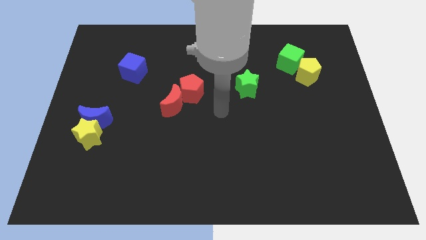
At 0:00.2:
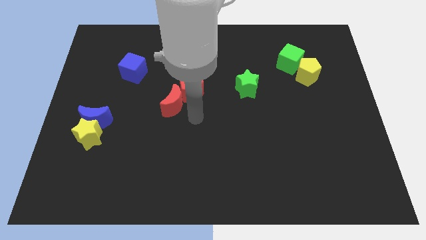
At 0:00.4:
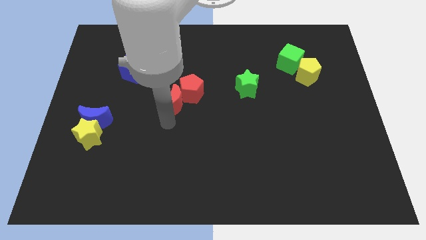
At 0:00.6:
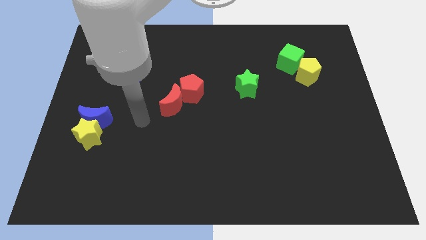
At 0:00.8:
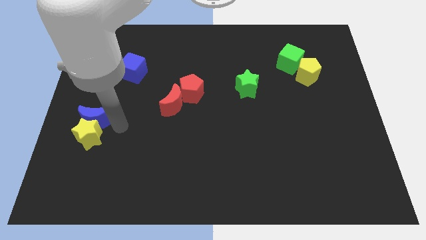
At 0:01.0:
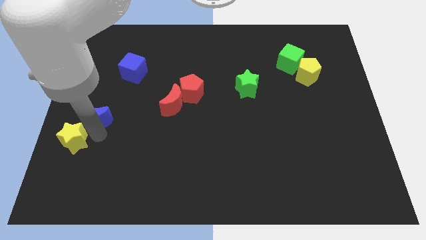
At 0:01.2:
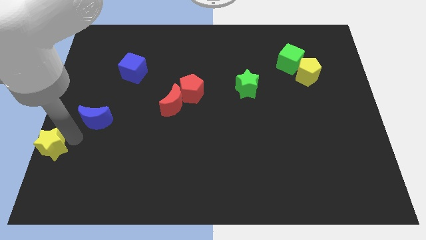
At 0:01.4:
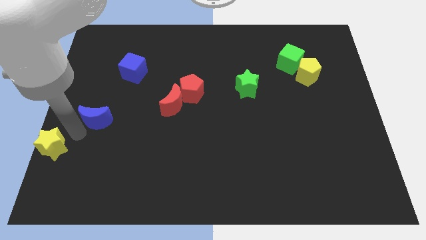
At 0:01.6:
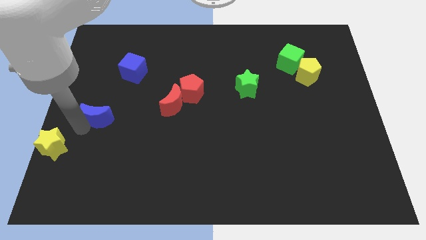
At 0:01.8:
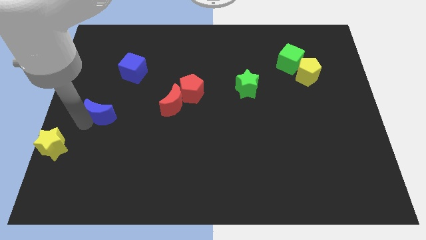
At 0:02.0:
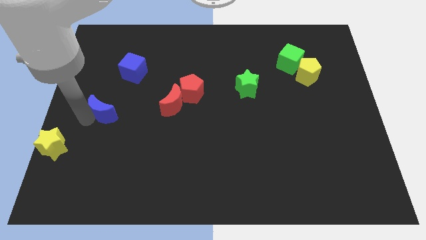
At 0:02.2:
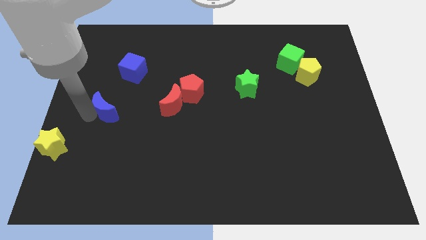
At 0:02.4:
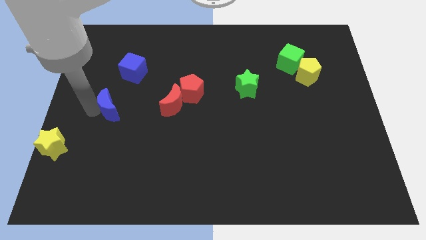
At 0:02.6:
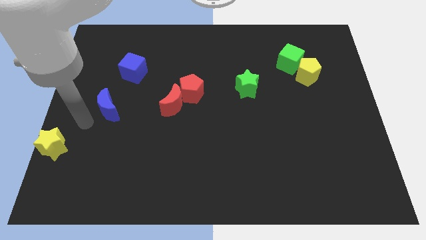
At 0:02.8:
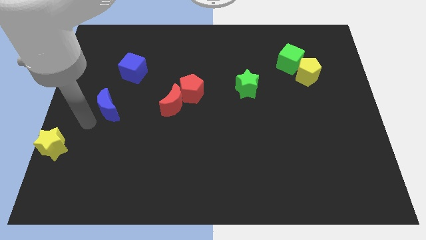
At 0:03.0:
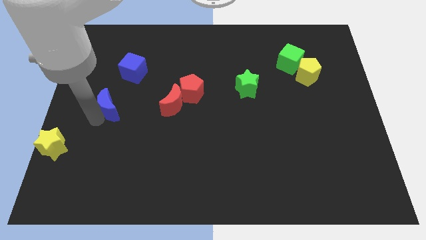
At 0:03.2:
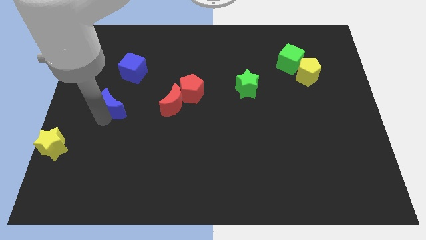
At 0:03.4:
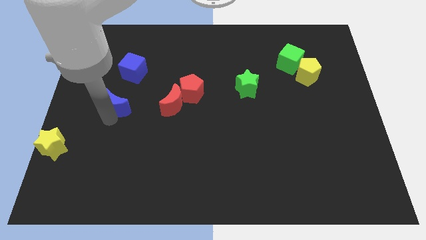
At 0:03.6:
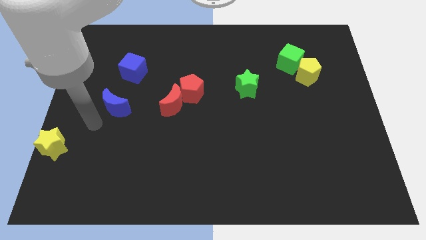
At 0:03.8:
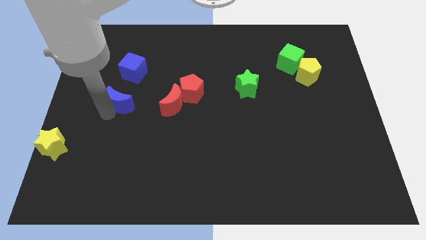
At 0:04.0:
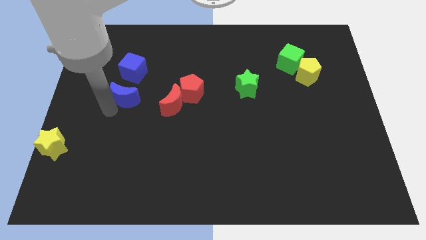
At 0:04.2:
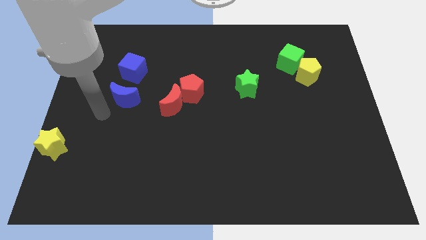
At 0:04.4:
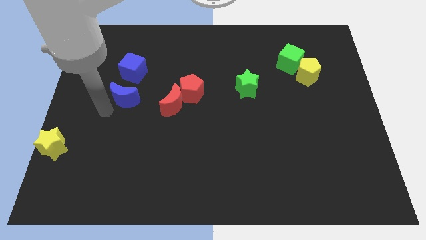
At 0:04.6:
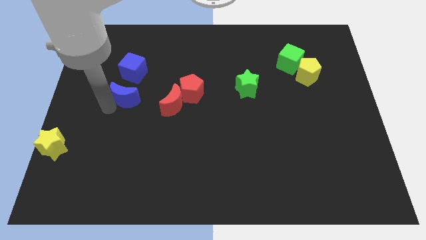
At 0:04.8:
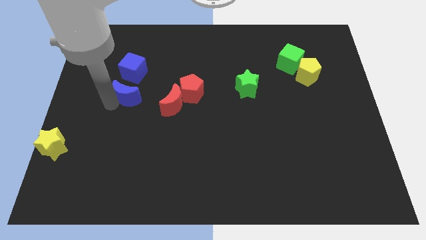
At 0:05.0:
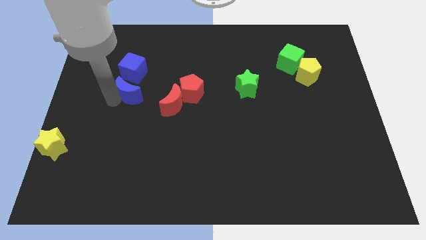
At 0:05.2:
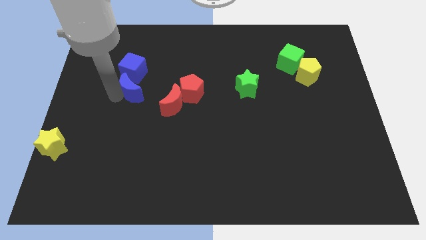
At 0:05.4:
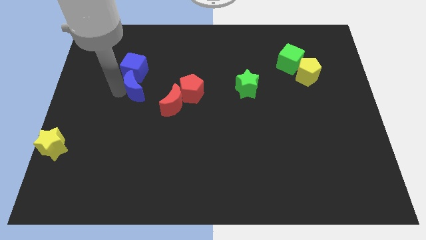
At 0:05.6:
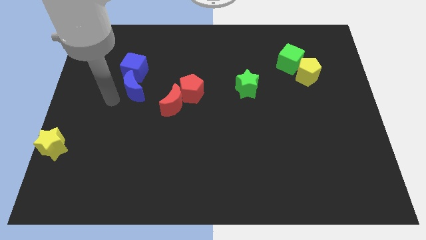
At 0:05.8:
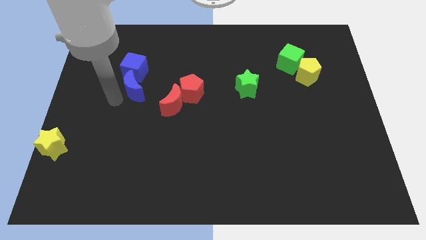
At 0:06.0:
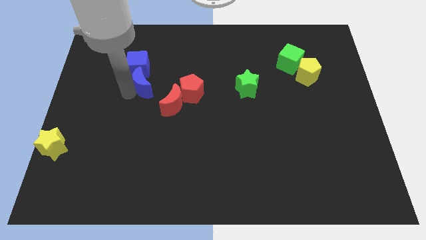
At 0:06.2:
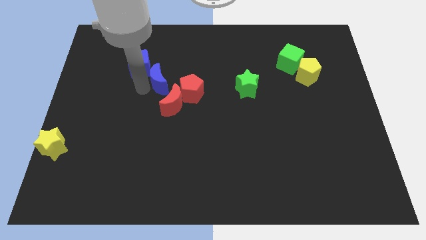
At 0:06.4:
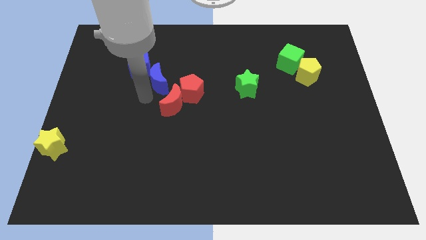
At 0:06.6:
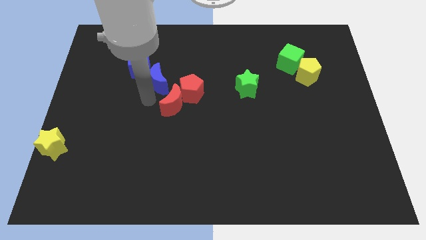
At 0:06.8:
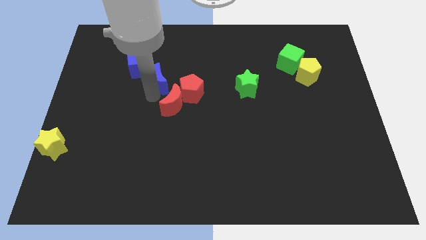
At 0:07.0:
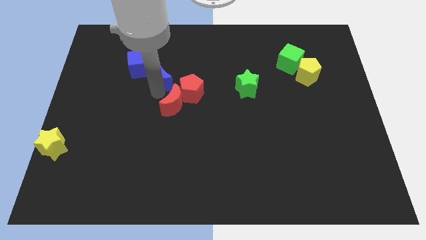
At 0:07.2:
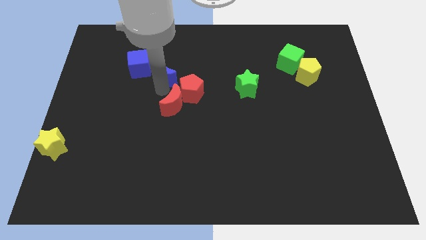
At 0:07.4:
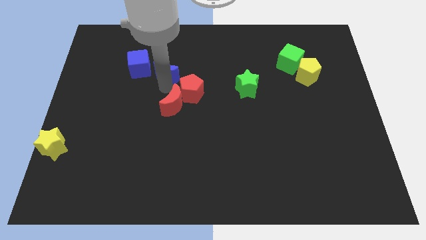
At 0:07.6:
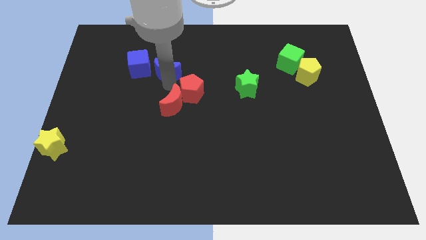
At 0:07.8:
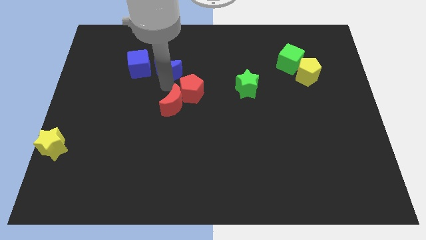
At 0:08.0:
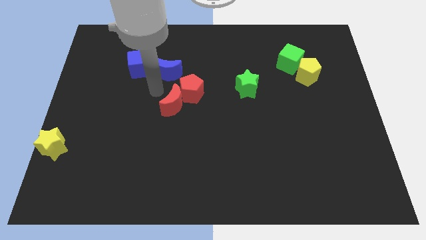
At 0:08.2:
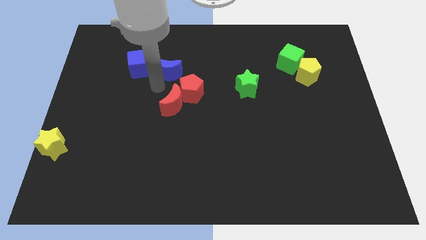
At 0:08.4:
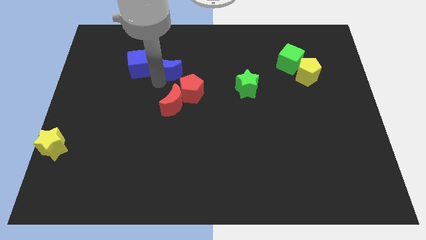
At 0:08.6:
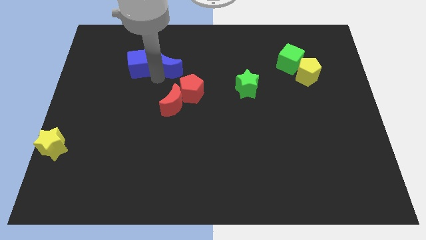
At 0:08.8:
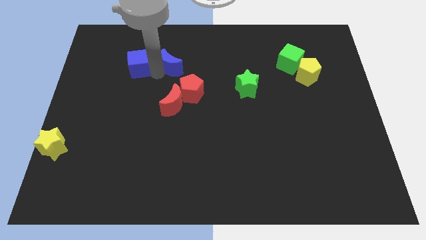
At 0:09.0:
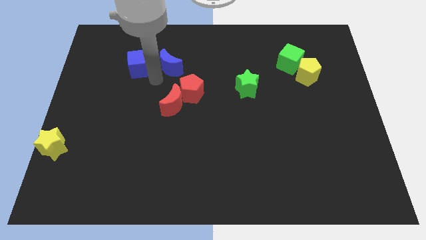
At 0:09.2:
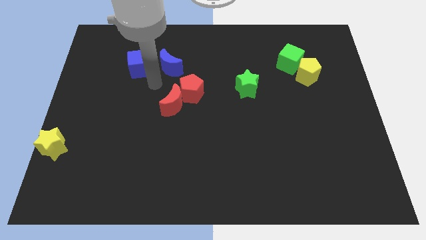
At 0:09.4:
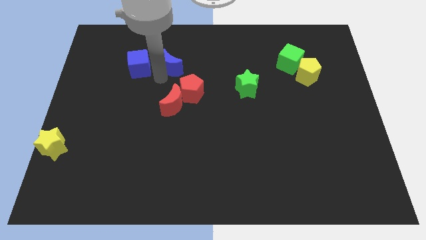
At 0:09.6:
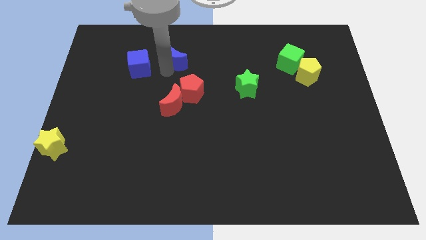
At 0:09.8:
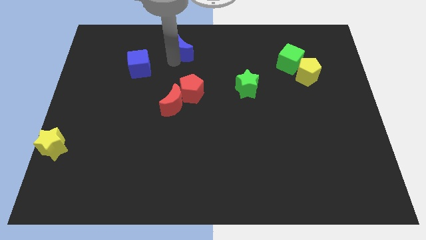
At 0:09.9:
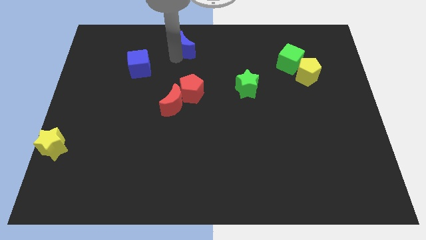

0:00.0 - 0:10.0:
put the blue moon to the towards your base

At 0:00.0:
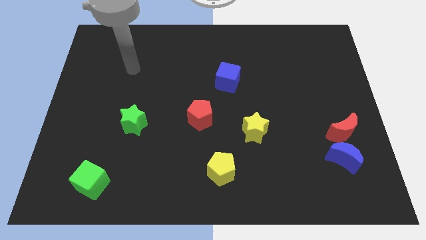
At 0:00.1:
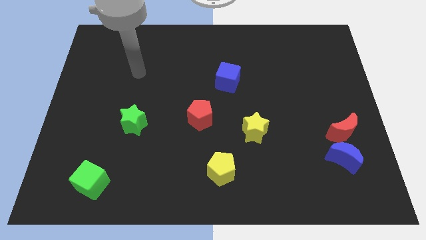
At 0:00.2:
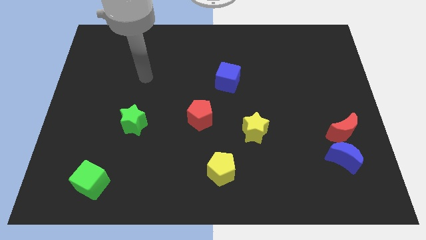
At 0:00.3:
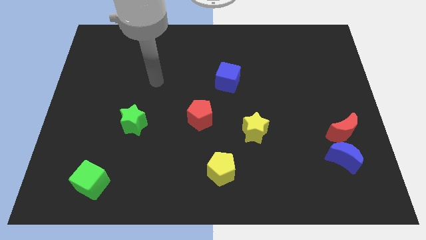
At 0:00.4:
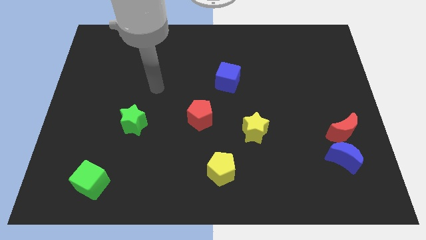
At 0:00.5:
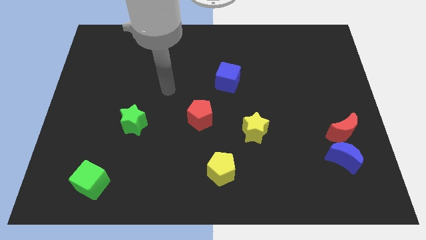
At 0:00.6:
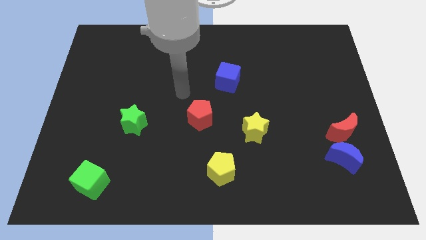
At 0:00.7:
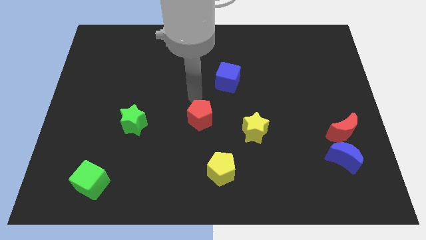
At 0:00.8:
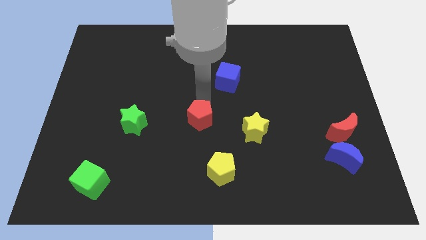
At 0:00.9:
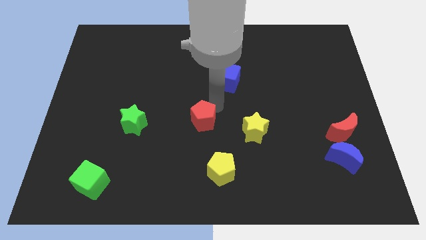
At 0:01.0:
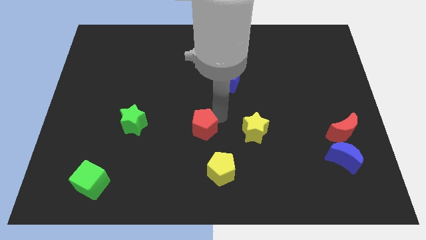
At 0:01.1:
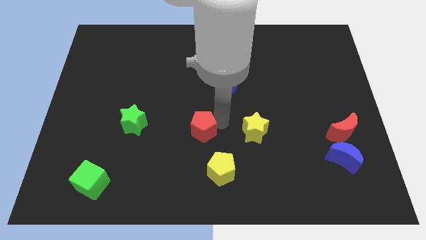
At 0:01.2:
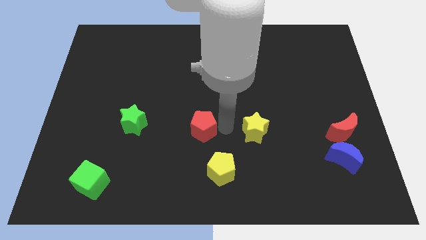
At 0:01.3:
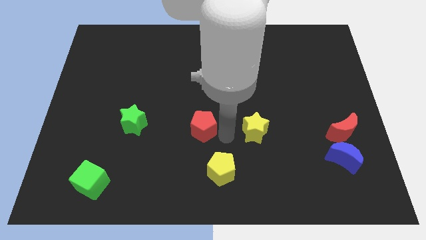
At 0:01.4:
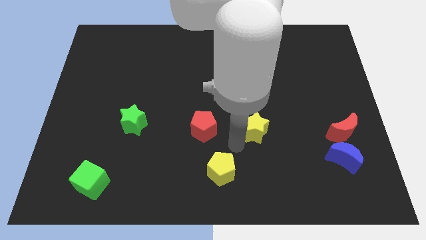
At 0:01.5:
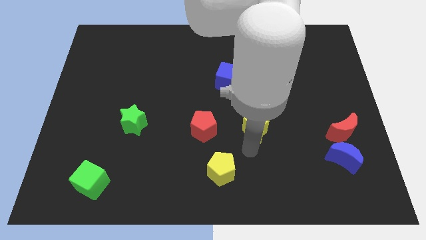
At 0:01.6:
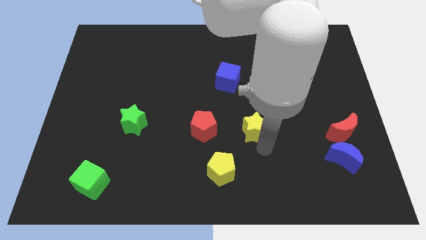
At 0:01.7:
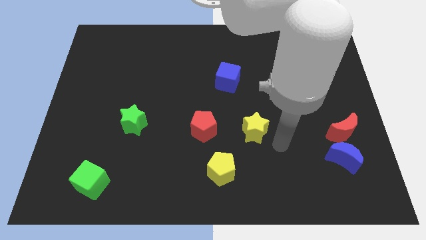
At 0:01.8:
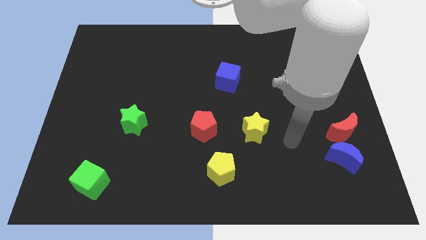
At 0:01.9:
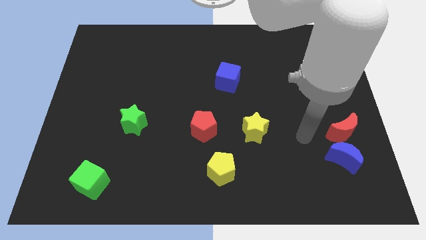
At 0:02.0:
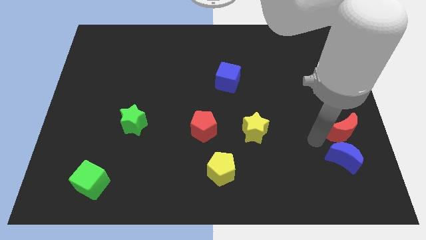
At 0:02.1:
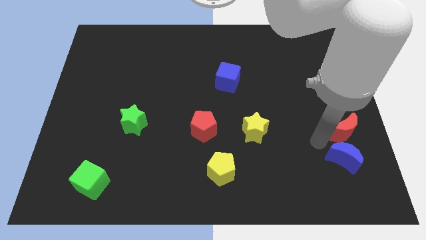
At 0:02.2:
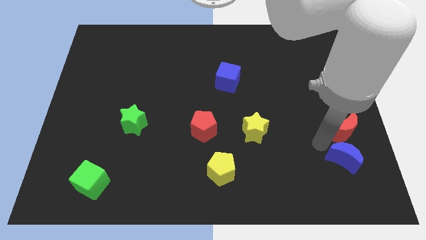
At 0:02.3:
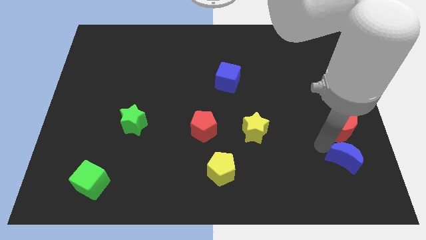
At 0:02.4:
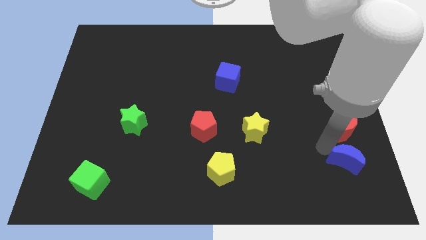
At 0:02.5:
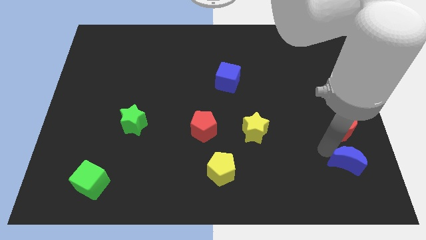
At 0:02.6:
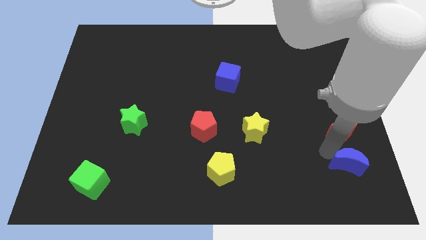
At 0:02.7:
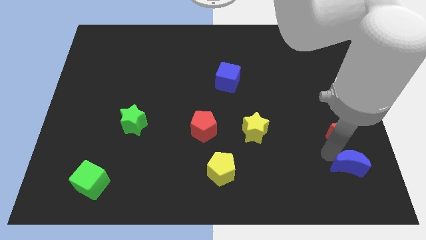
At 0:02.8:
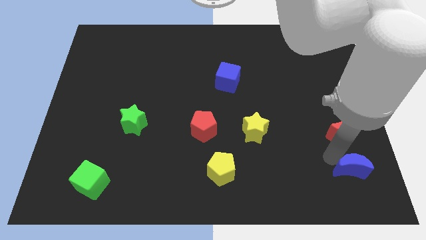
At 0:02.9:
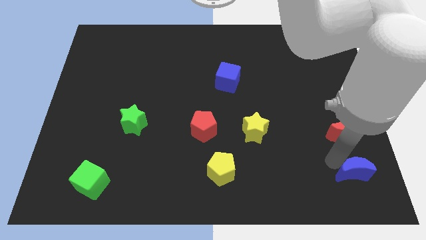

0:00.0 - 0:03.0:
move the blue moon to the bottom right of the board
